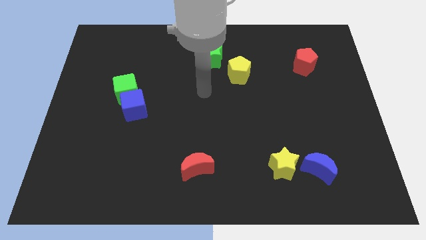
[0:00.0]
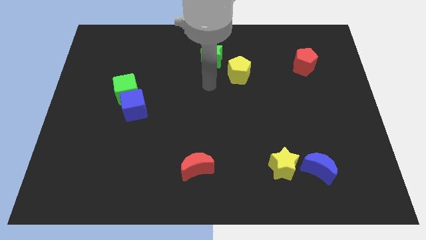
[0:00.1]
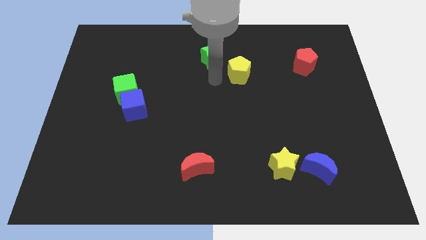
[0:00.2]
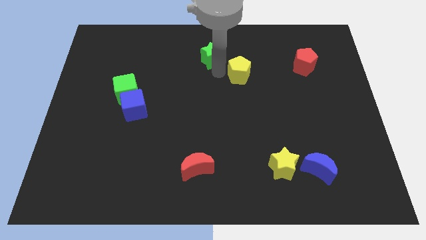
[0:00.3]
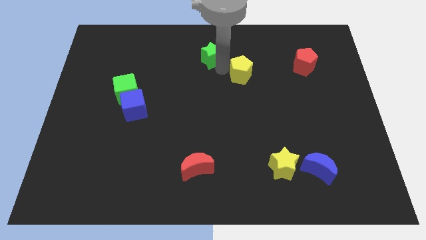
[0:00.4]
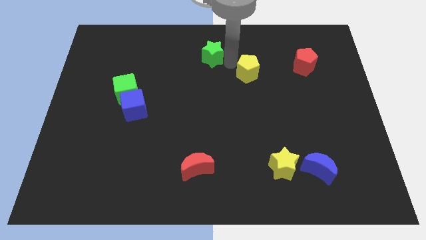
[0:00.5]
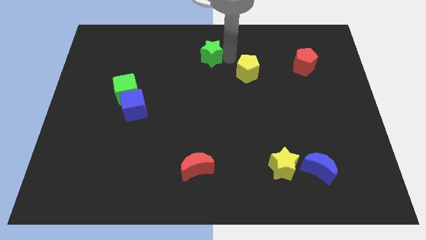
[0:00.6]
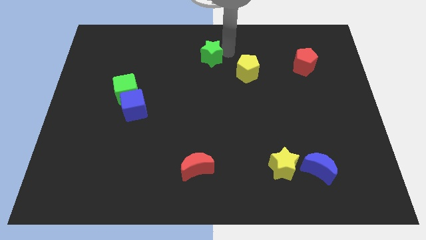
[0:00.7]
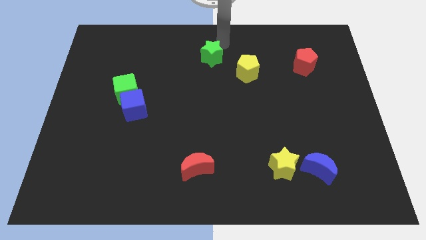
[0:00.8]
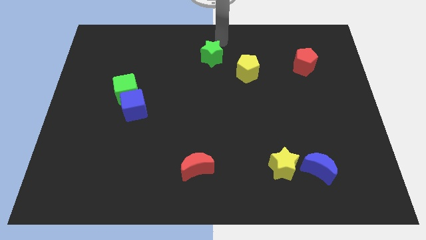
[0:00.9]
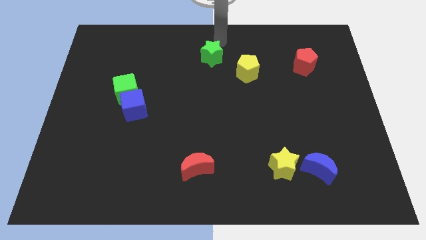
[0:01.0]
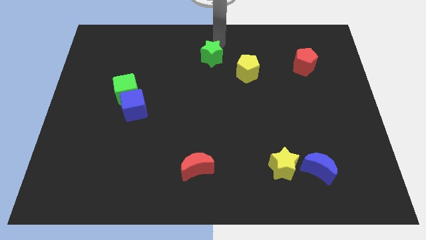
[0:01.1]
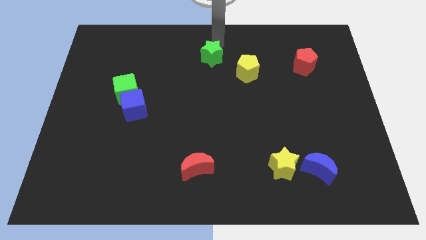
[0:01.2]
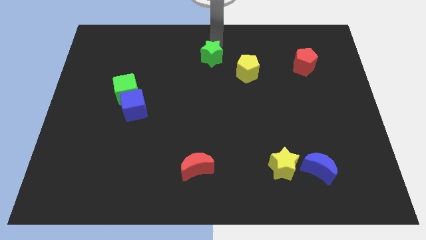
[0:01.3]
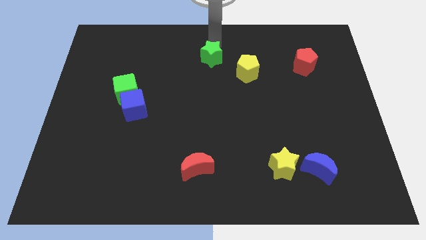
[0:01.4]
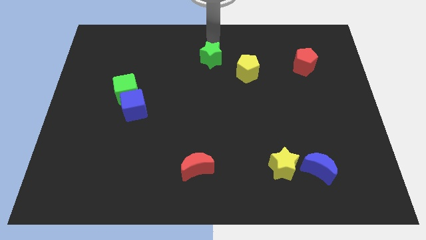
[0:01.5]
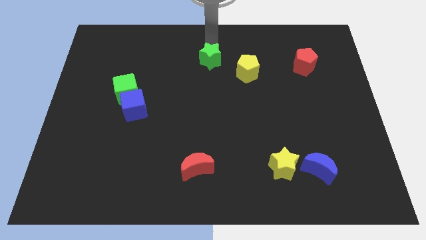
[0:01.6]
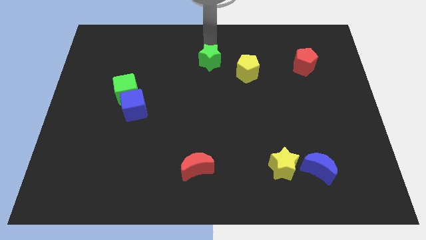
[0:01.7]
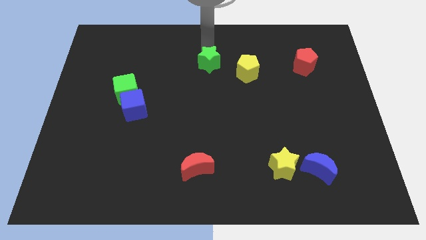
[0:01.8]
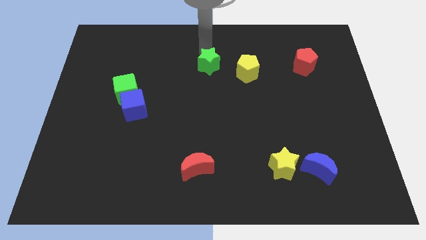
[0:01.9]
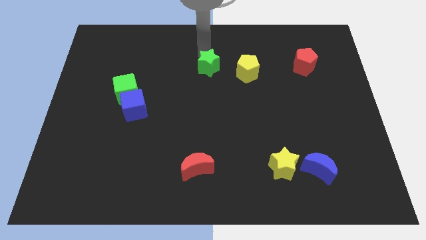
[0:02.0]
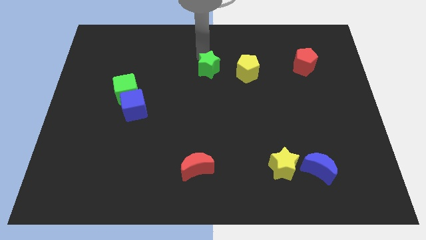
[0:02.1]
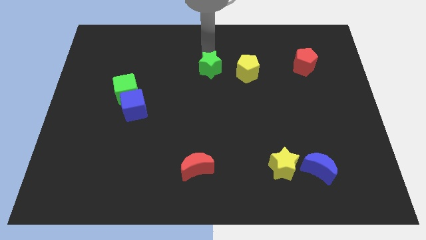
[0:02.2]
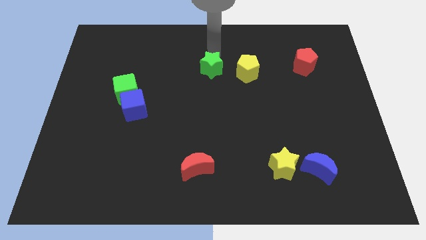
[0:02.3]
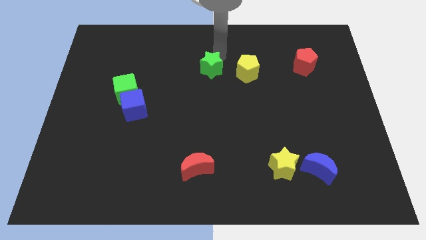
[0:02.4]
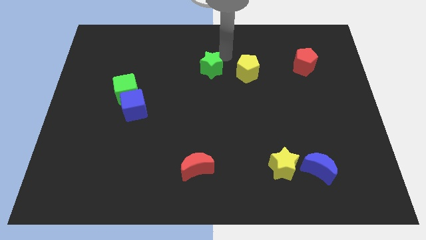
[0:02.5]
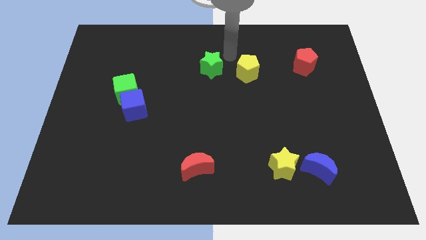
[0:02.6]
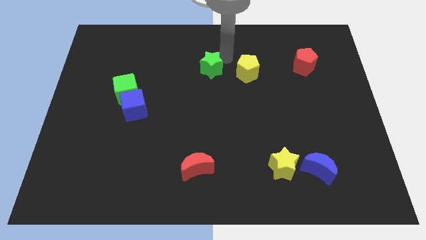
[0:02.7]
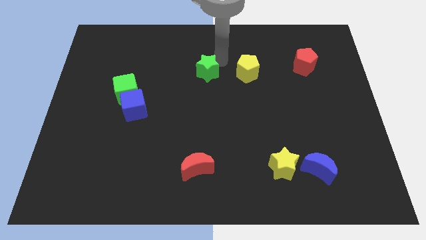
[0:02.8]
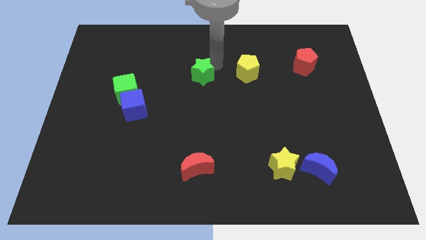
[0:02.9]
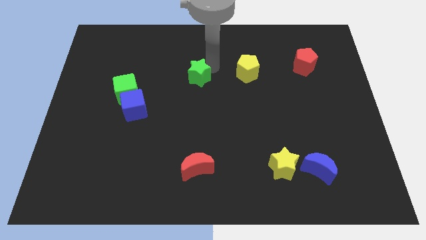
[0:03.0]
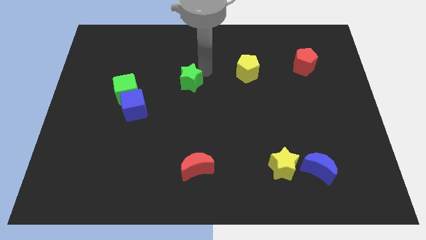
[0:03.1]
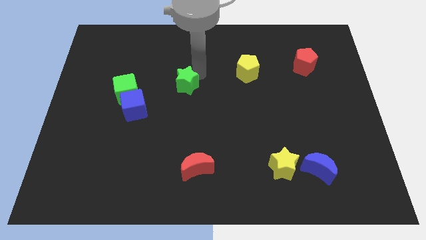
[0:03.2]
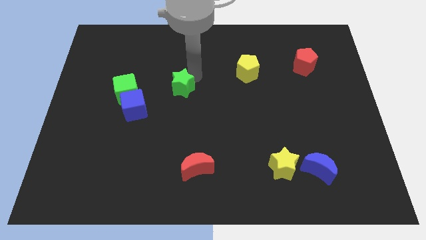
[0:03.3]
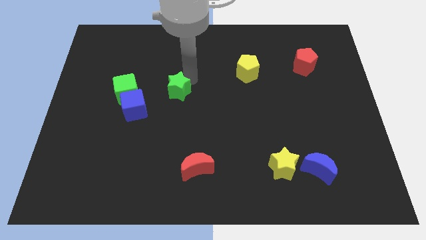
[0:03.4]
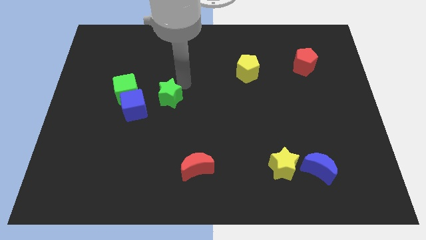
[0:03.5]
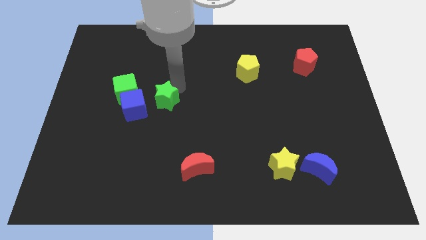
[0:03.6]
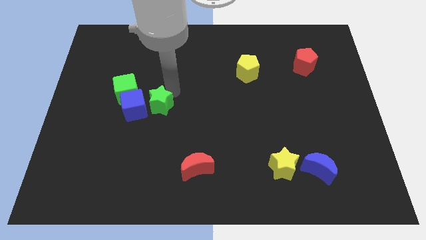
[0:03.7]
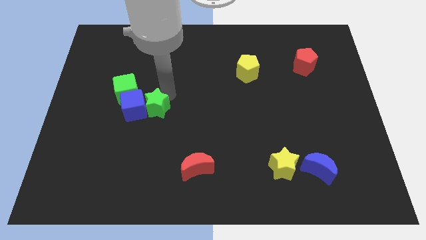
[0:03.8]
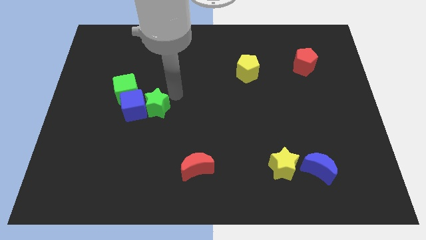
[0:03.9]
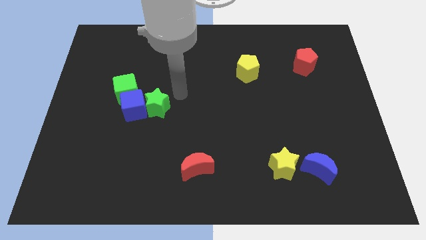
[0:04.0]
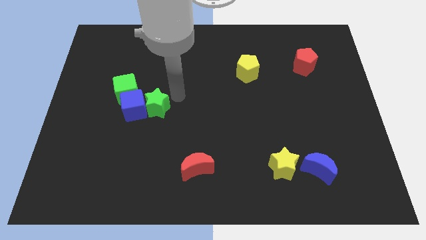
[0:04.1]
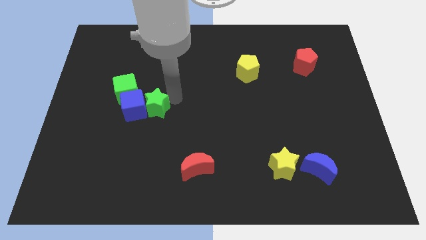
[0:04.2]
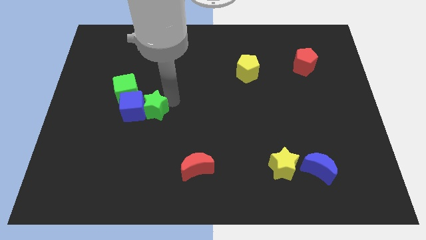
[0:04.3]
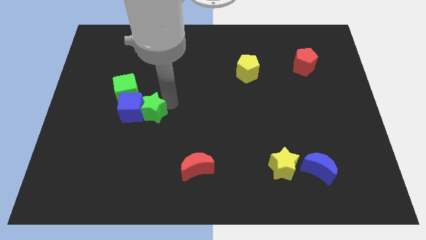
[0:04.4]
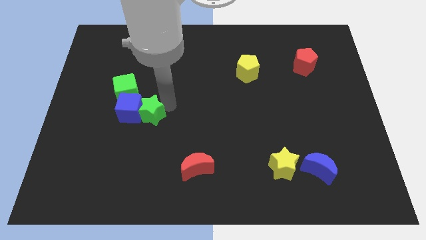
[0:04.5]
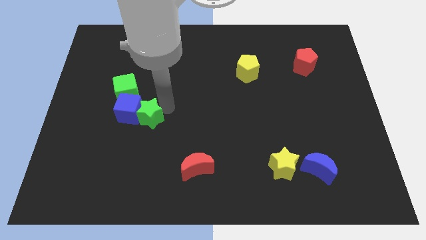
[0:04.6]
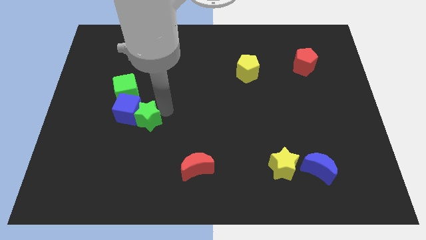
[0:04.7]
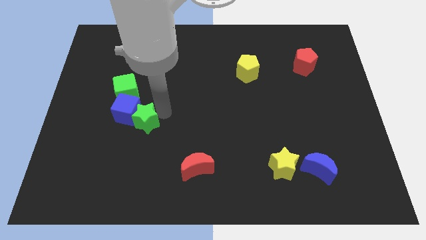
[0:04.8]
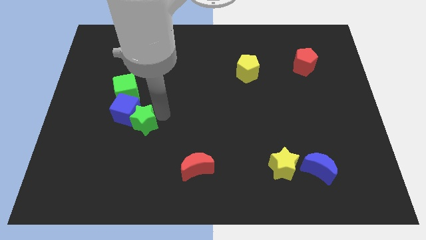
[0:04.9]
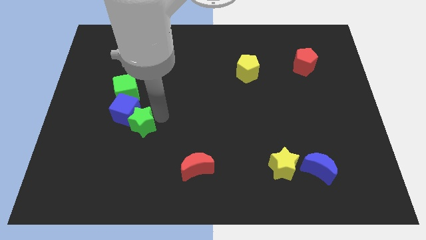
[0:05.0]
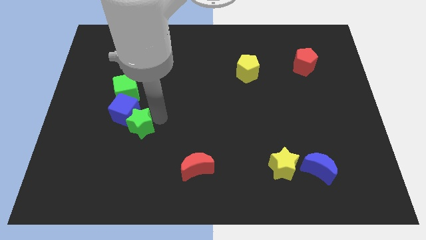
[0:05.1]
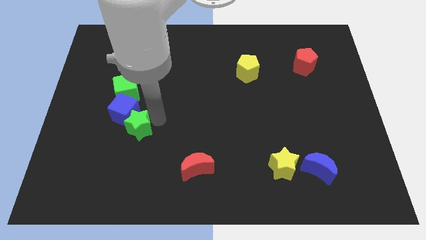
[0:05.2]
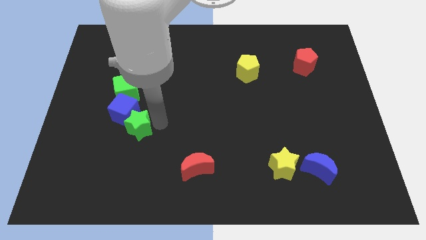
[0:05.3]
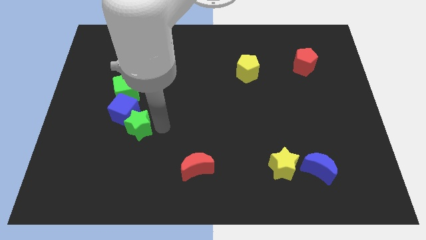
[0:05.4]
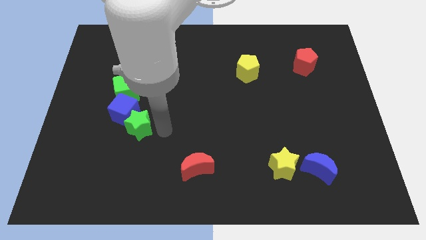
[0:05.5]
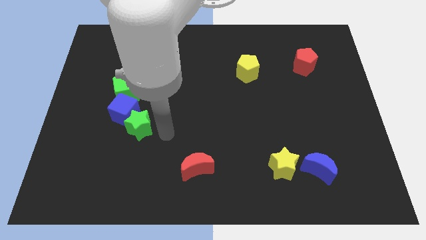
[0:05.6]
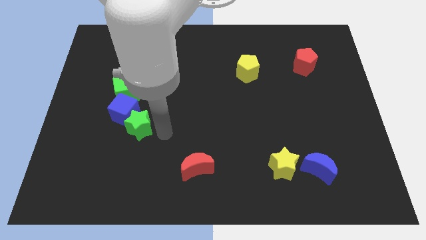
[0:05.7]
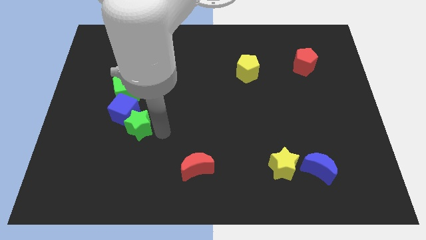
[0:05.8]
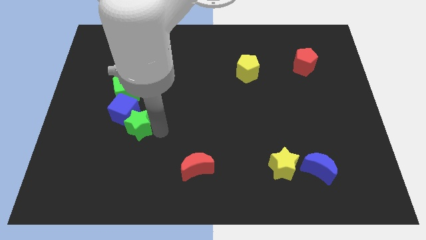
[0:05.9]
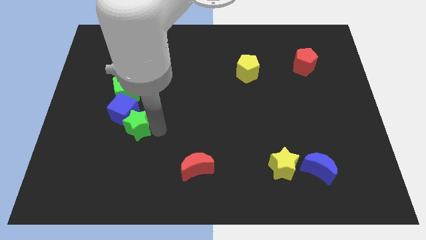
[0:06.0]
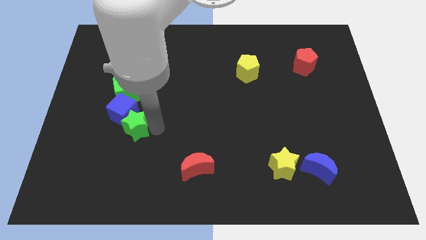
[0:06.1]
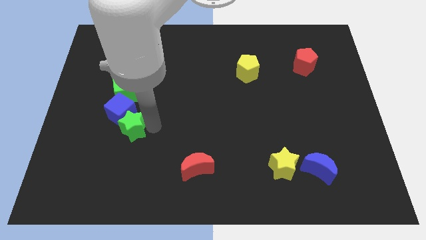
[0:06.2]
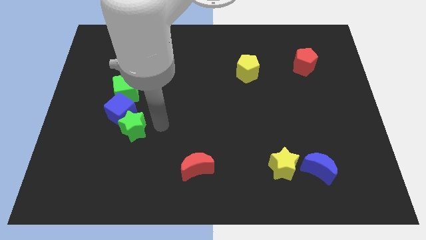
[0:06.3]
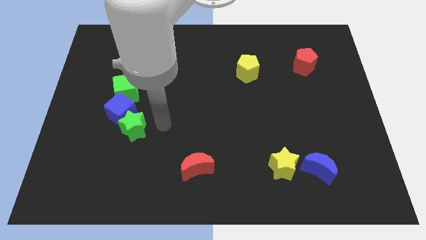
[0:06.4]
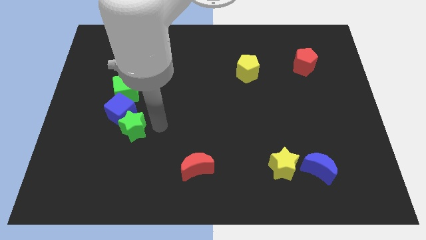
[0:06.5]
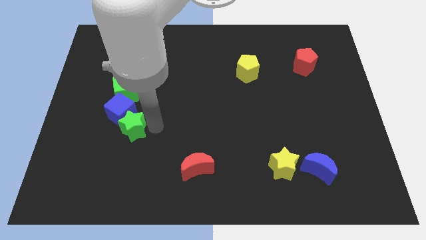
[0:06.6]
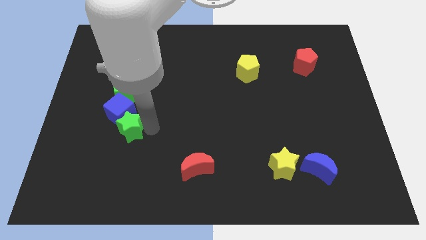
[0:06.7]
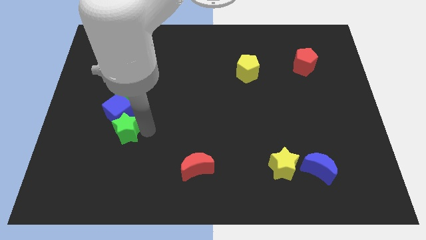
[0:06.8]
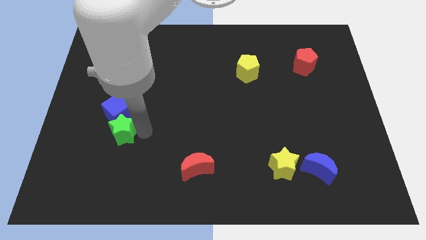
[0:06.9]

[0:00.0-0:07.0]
slide the green star to the bottom left side of the blue cube
